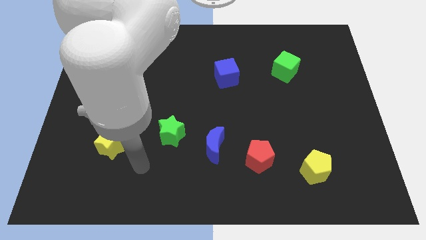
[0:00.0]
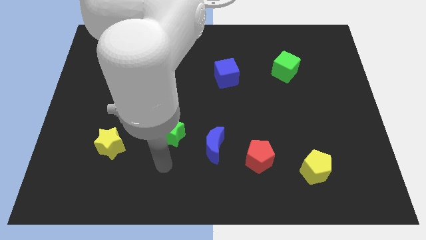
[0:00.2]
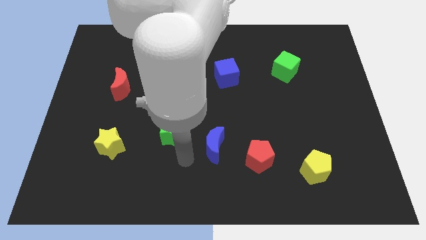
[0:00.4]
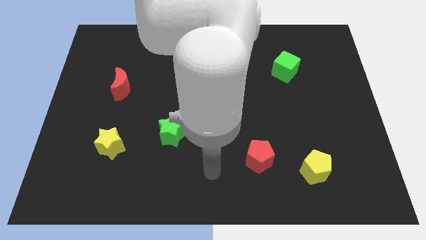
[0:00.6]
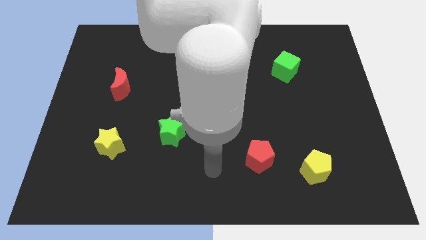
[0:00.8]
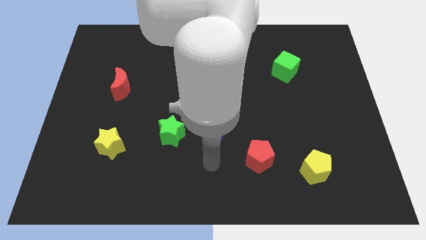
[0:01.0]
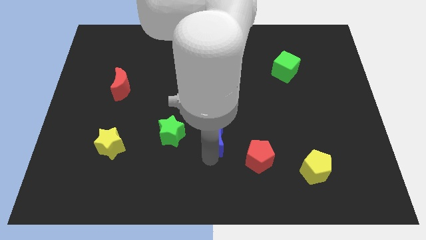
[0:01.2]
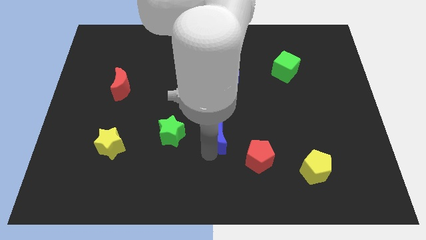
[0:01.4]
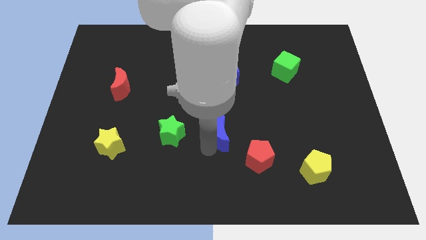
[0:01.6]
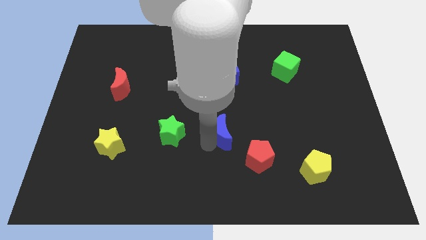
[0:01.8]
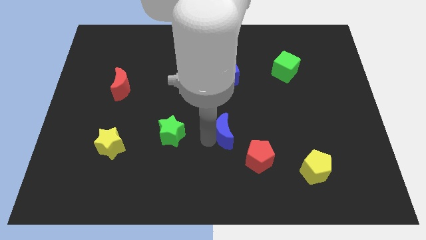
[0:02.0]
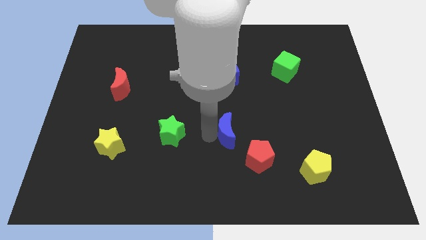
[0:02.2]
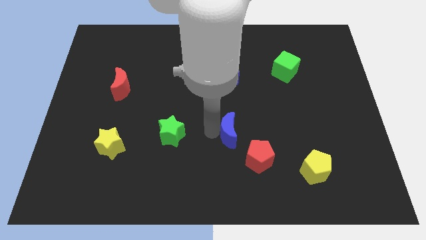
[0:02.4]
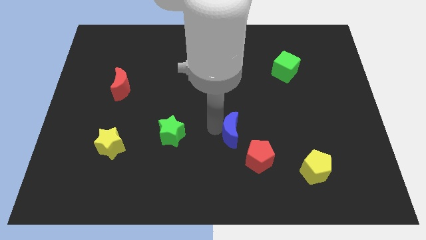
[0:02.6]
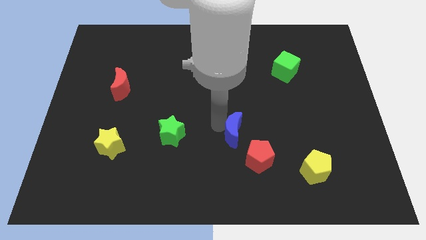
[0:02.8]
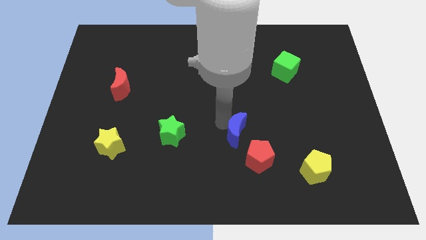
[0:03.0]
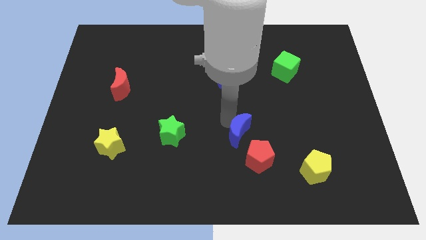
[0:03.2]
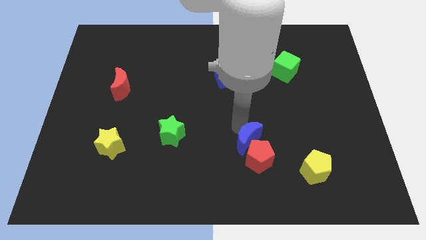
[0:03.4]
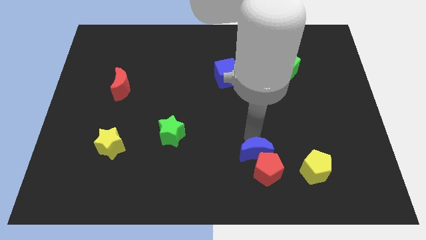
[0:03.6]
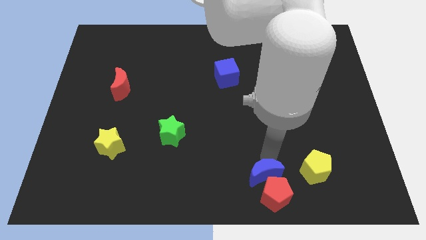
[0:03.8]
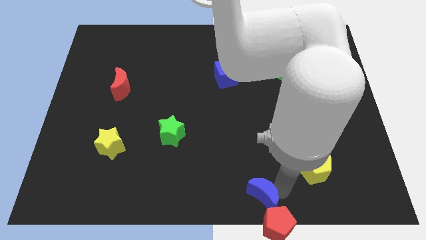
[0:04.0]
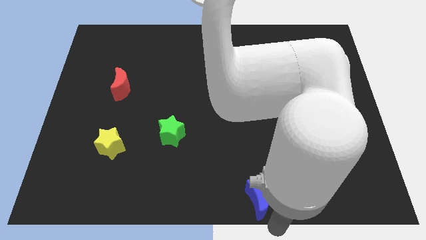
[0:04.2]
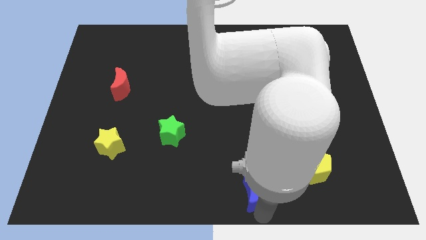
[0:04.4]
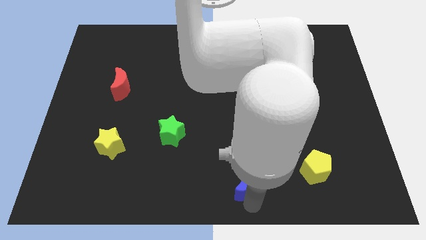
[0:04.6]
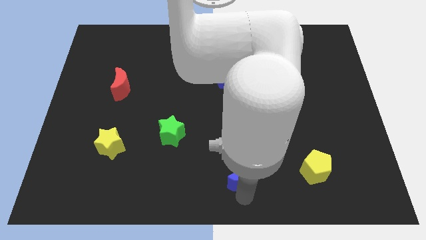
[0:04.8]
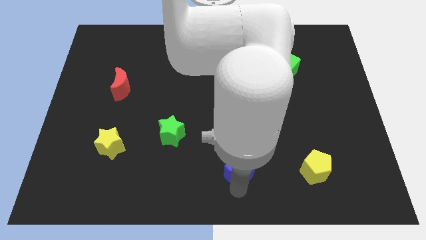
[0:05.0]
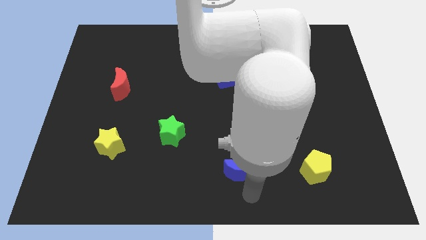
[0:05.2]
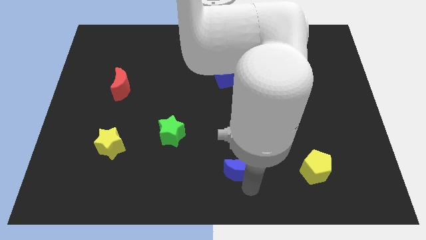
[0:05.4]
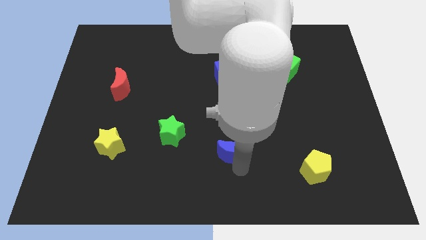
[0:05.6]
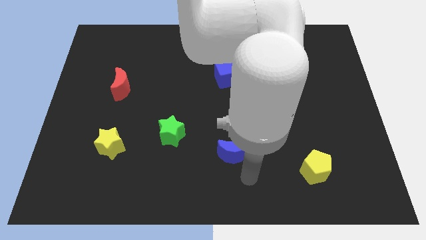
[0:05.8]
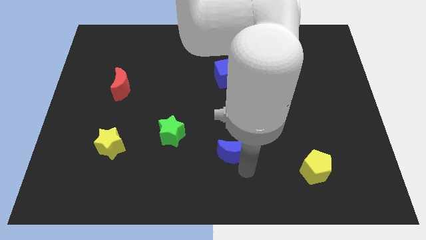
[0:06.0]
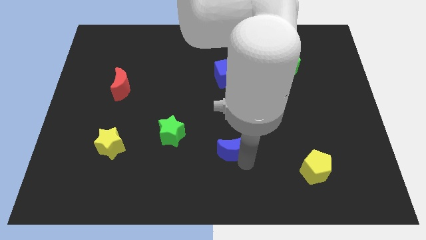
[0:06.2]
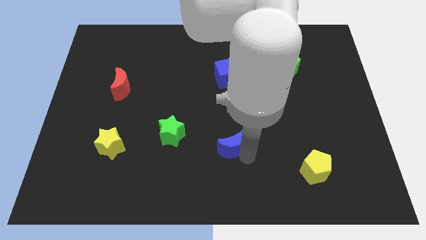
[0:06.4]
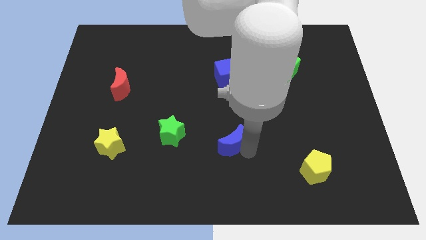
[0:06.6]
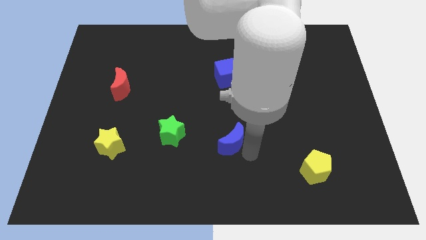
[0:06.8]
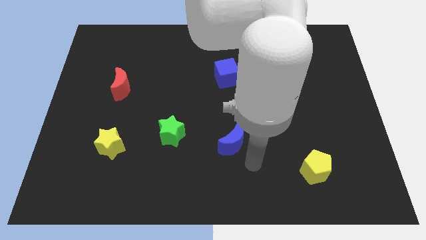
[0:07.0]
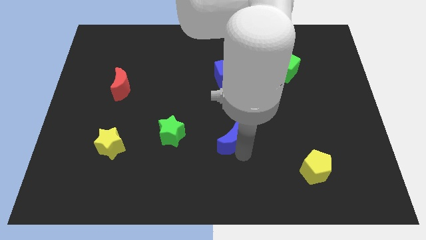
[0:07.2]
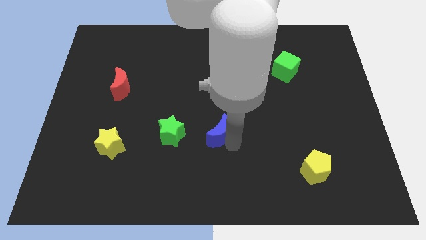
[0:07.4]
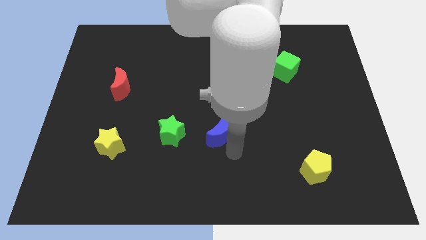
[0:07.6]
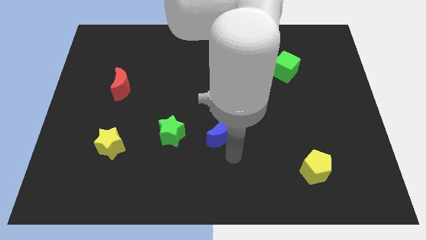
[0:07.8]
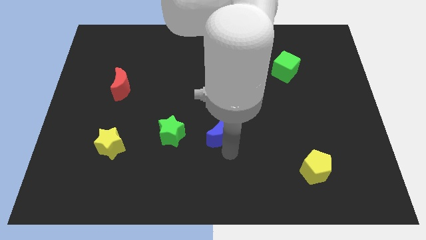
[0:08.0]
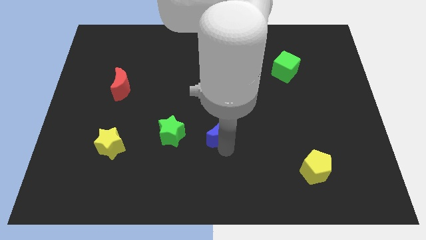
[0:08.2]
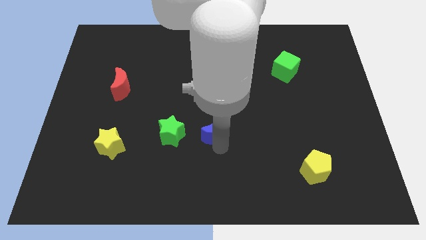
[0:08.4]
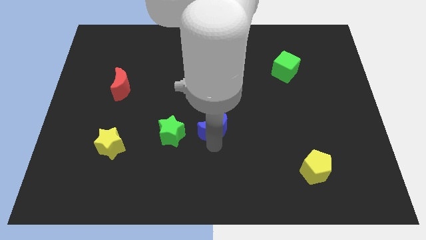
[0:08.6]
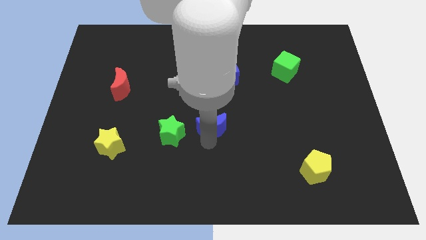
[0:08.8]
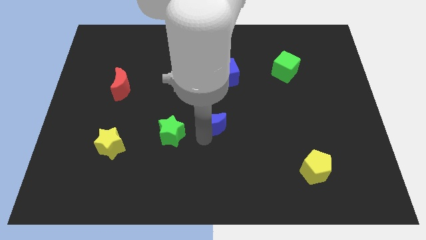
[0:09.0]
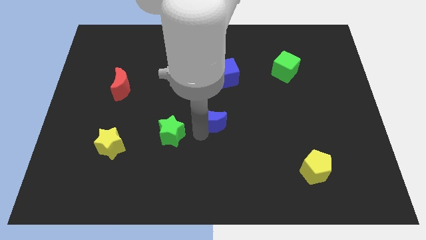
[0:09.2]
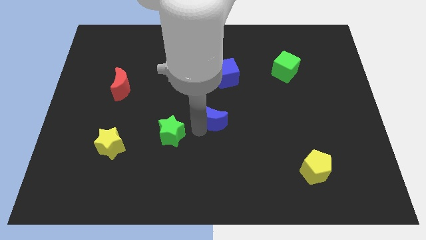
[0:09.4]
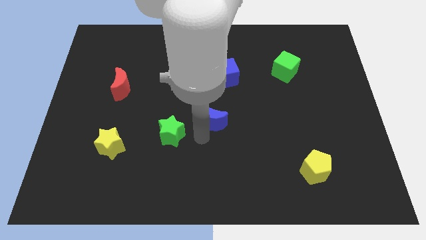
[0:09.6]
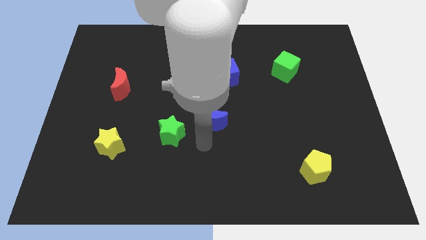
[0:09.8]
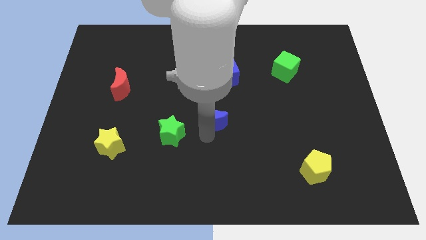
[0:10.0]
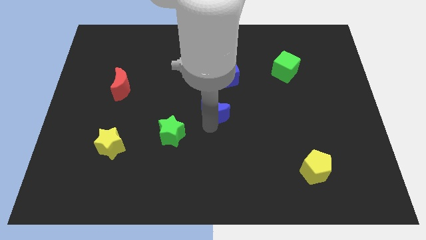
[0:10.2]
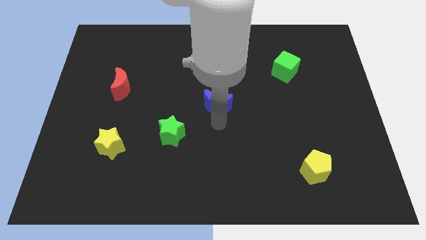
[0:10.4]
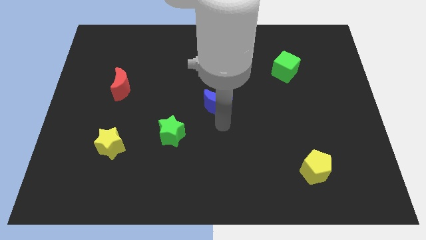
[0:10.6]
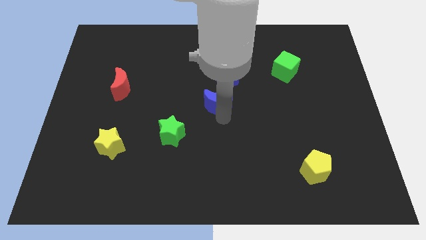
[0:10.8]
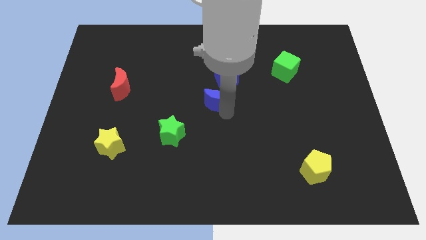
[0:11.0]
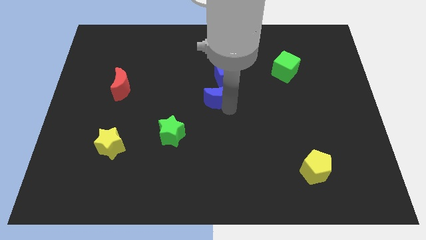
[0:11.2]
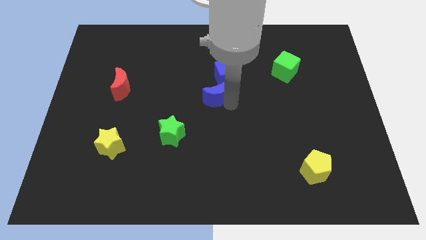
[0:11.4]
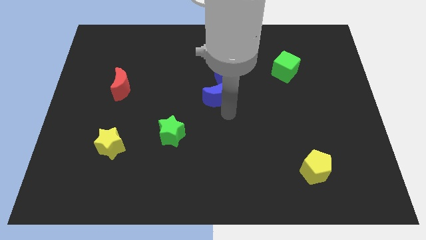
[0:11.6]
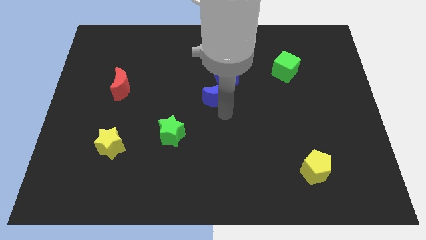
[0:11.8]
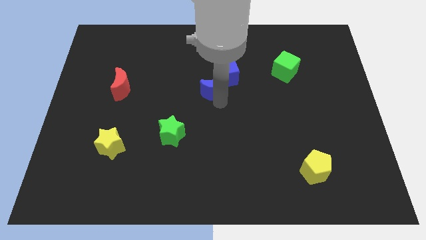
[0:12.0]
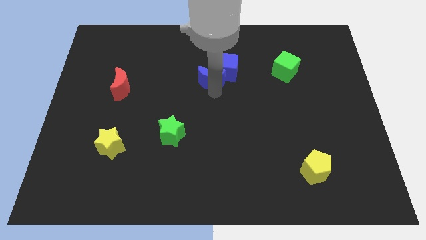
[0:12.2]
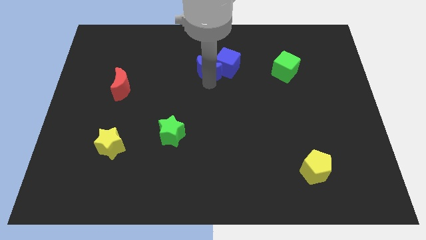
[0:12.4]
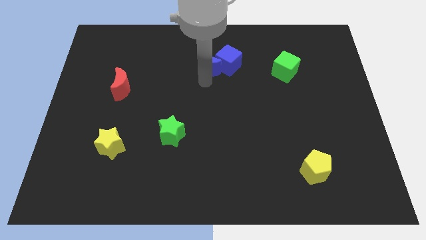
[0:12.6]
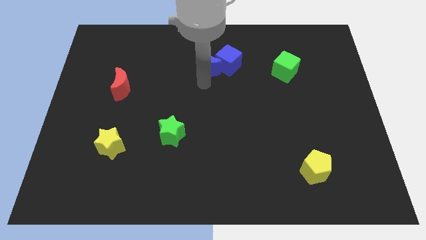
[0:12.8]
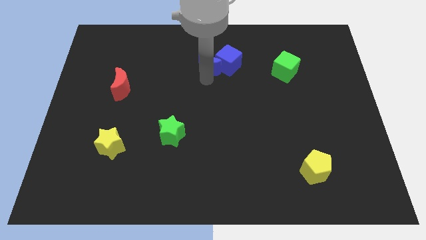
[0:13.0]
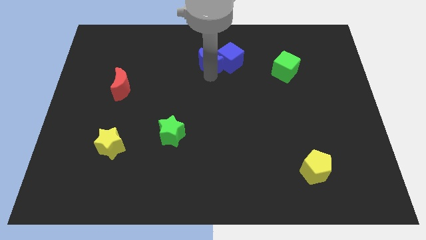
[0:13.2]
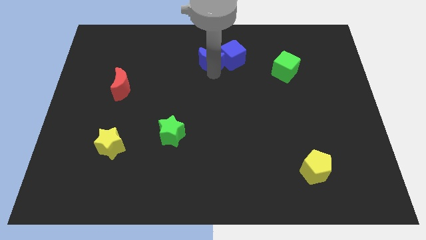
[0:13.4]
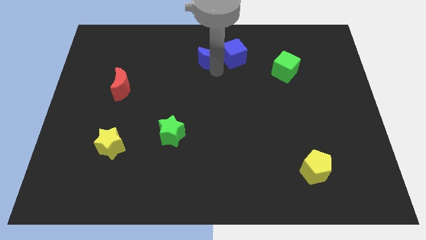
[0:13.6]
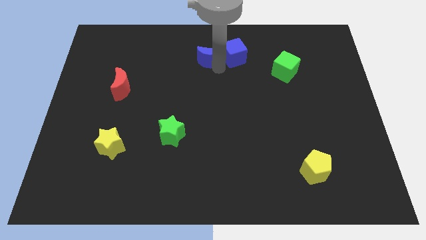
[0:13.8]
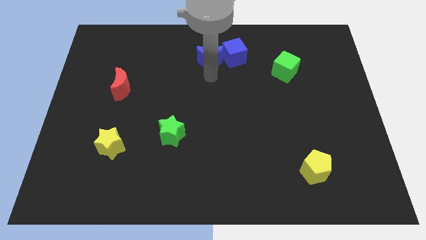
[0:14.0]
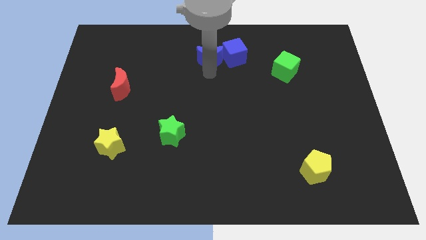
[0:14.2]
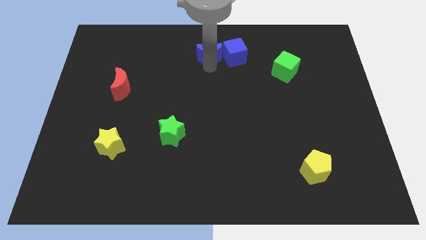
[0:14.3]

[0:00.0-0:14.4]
push the blue moon to the top side
